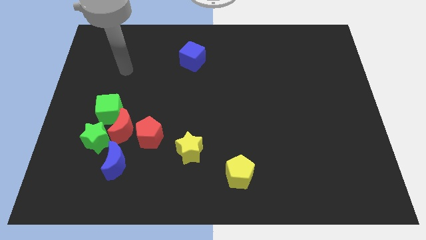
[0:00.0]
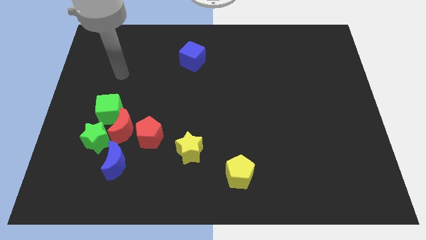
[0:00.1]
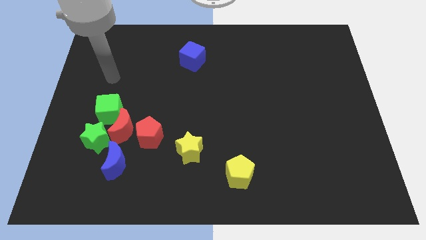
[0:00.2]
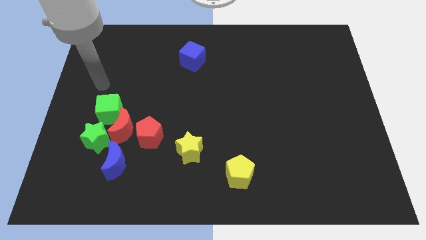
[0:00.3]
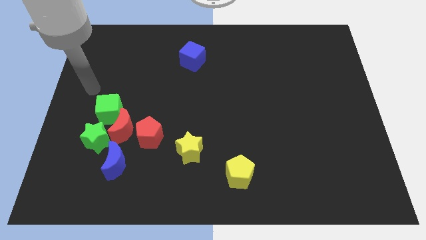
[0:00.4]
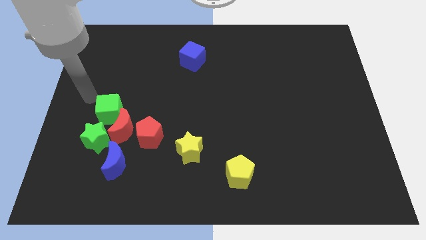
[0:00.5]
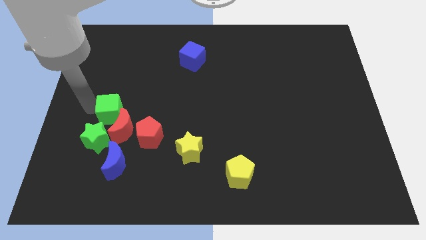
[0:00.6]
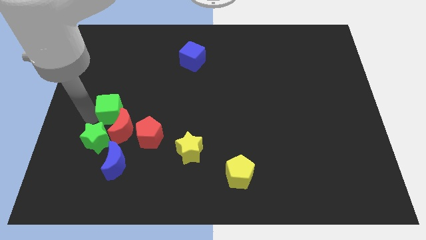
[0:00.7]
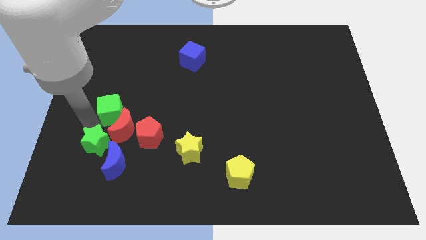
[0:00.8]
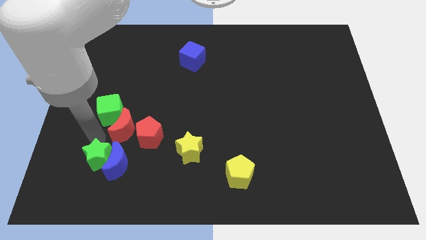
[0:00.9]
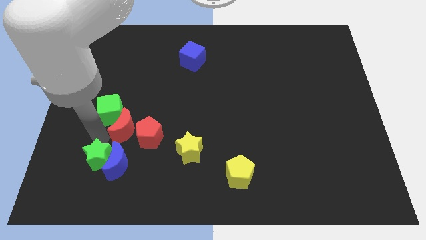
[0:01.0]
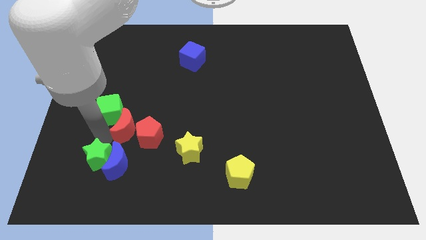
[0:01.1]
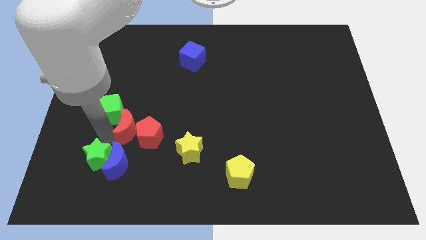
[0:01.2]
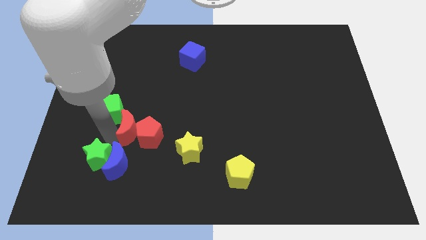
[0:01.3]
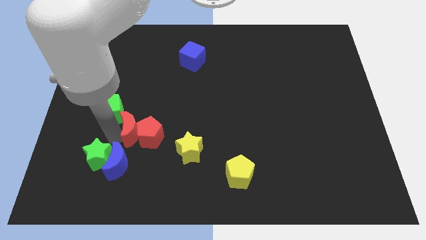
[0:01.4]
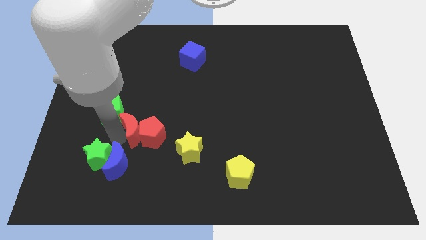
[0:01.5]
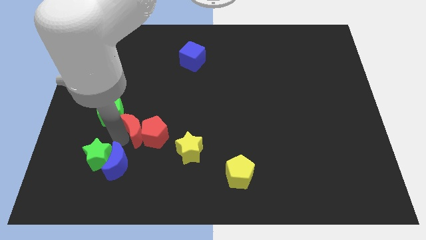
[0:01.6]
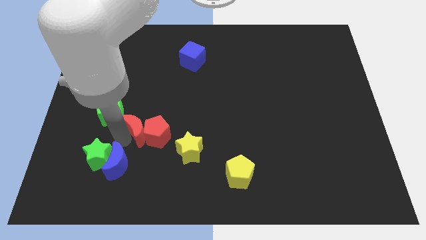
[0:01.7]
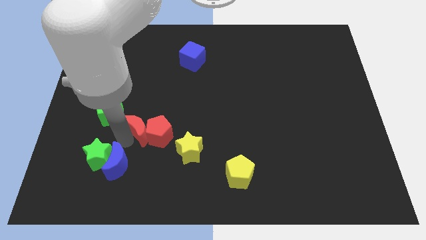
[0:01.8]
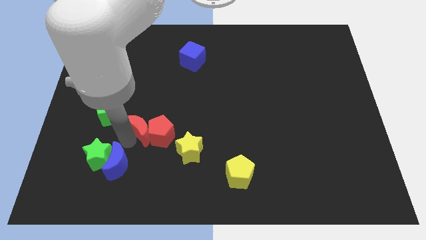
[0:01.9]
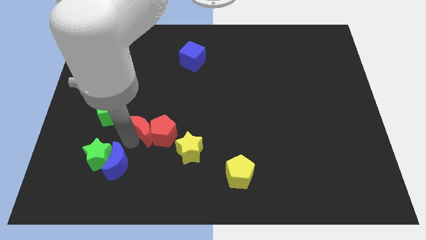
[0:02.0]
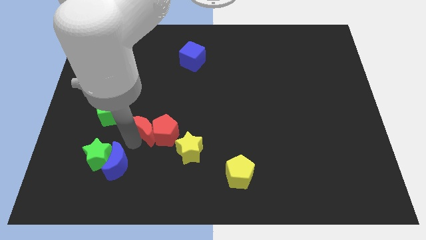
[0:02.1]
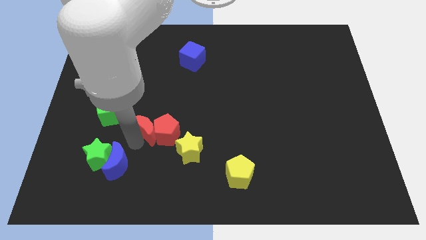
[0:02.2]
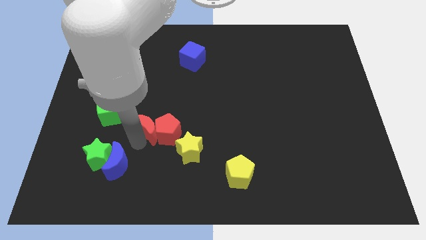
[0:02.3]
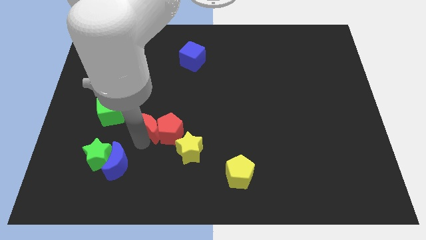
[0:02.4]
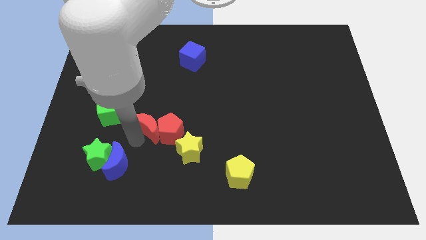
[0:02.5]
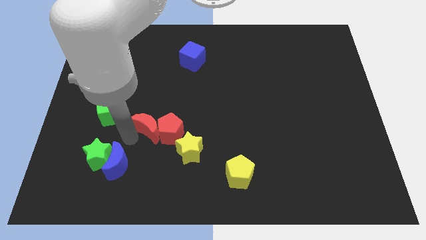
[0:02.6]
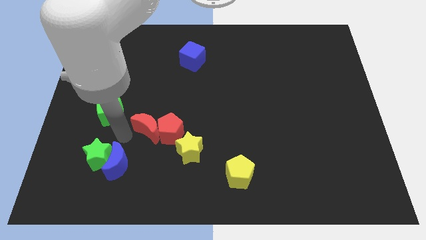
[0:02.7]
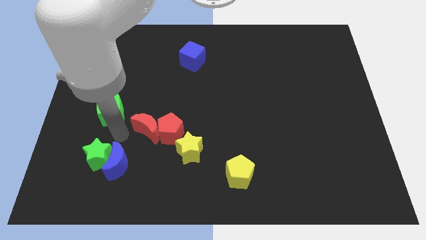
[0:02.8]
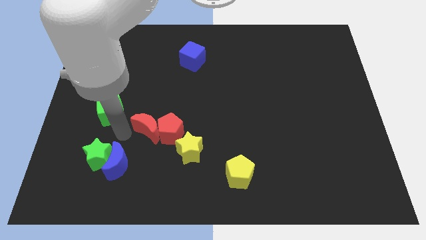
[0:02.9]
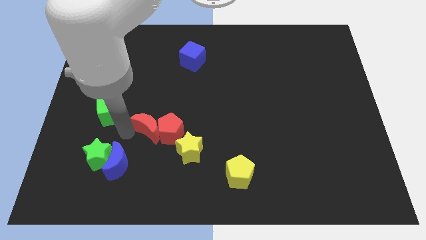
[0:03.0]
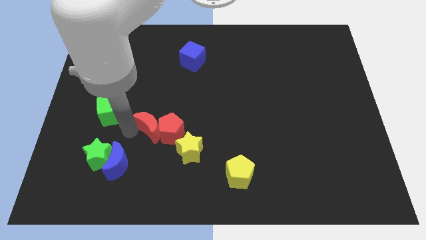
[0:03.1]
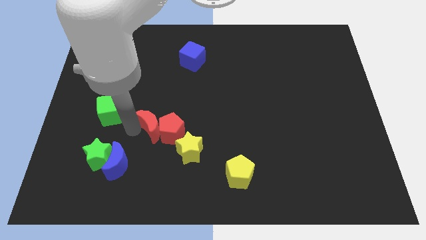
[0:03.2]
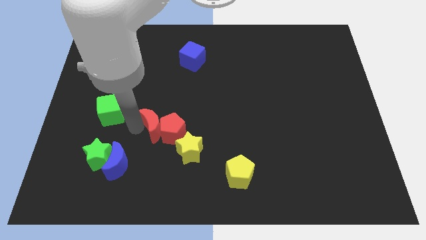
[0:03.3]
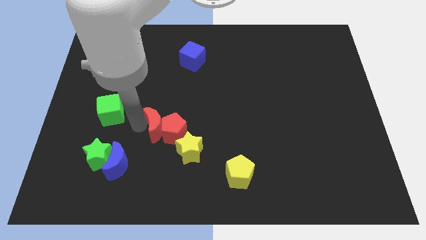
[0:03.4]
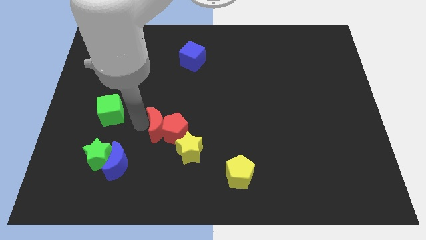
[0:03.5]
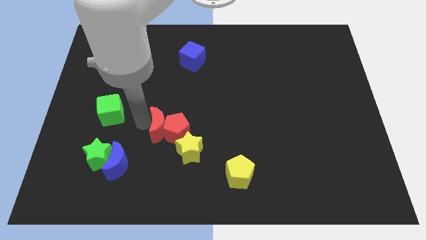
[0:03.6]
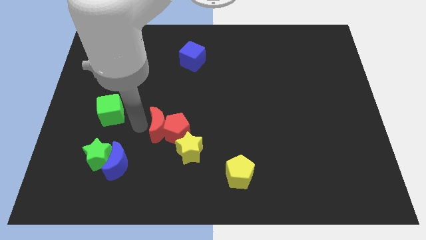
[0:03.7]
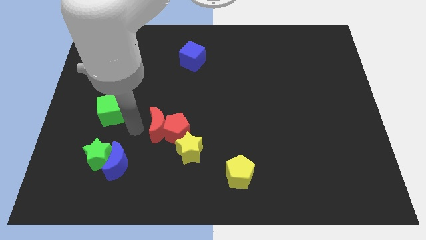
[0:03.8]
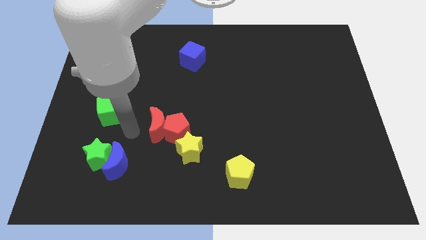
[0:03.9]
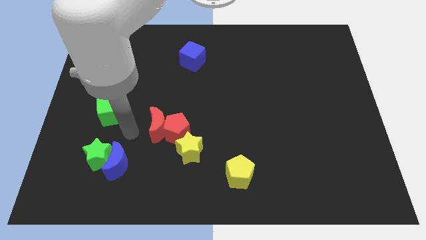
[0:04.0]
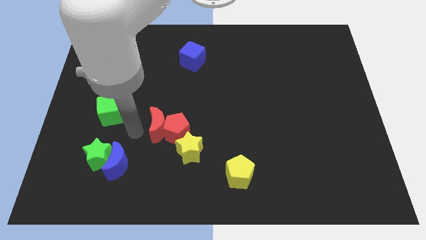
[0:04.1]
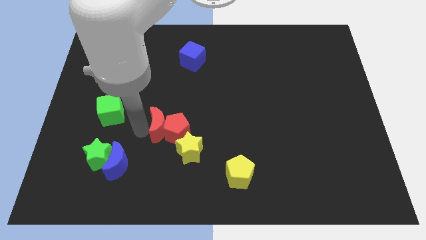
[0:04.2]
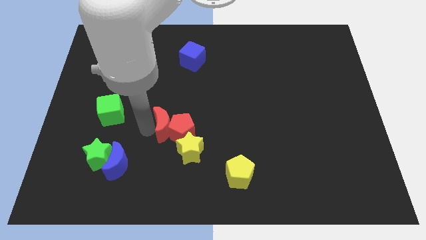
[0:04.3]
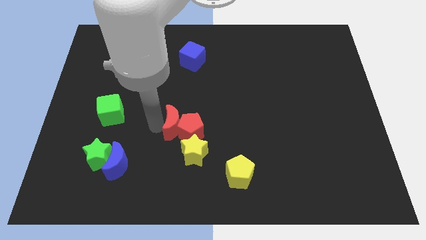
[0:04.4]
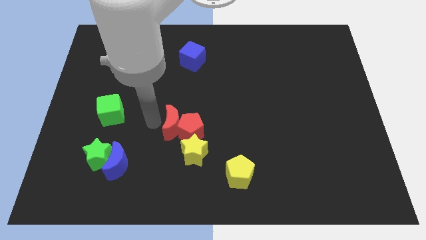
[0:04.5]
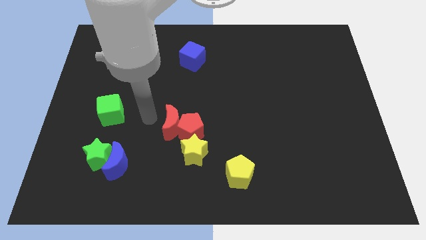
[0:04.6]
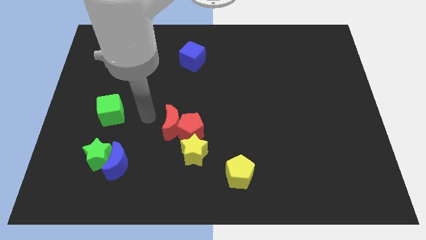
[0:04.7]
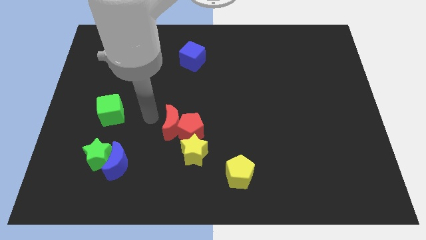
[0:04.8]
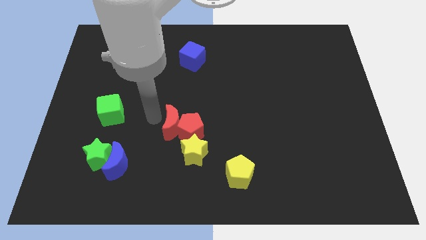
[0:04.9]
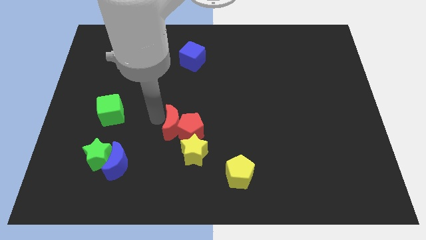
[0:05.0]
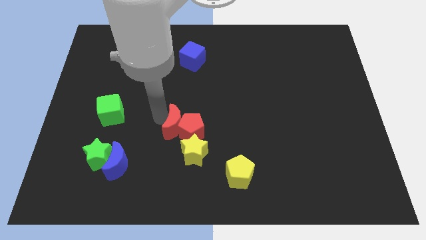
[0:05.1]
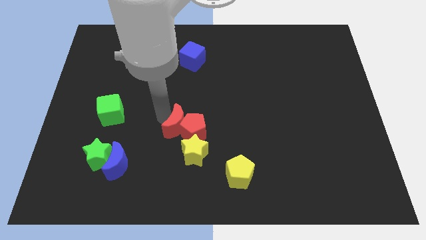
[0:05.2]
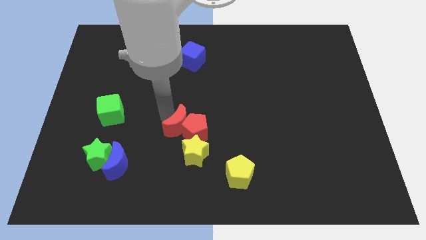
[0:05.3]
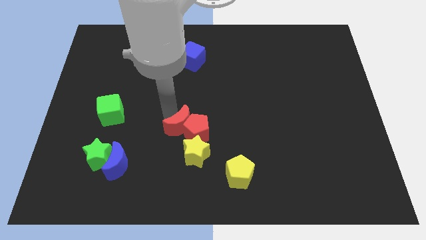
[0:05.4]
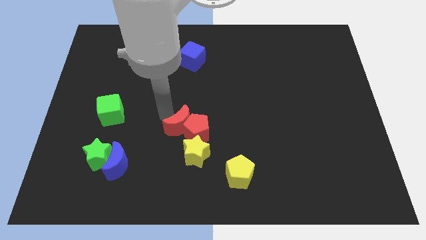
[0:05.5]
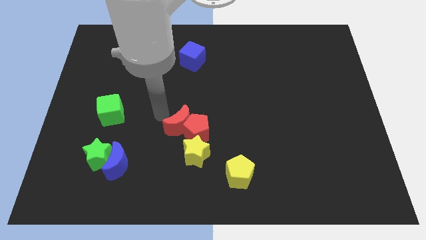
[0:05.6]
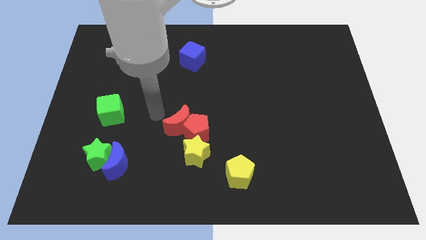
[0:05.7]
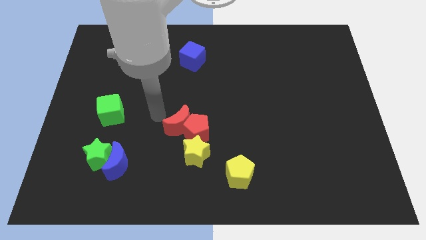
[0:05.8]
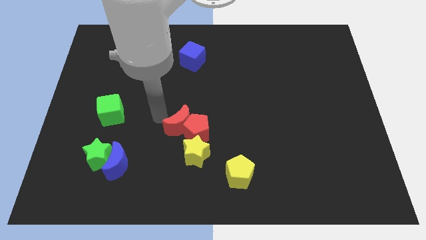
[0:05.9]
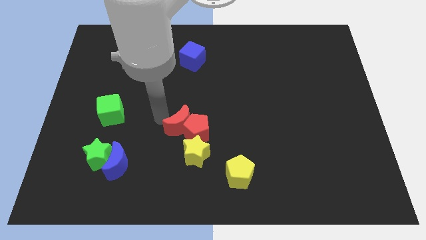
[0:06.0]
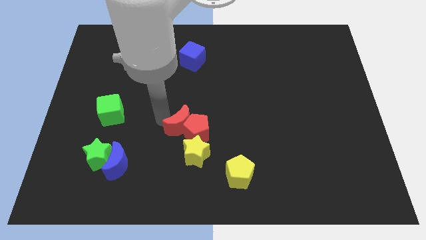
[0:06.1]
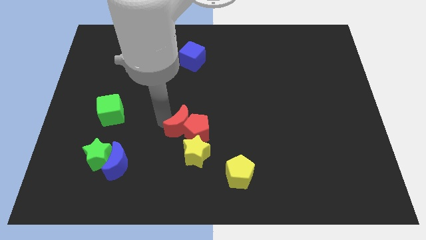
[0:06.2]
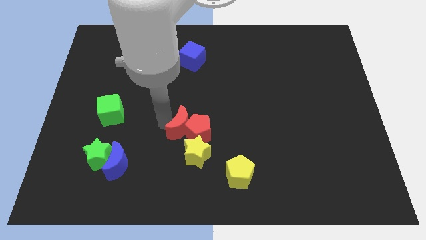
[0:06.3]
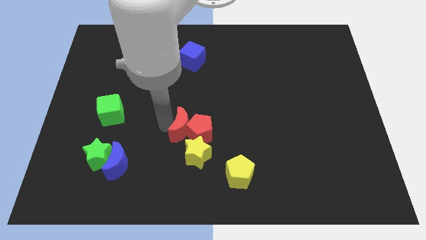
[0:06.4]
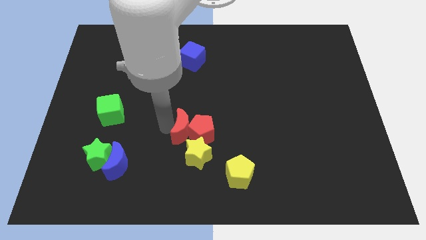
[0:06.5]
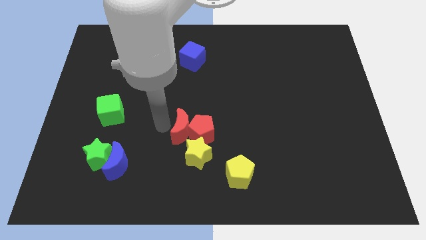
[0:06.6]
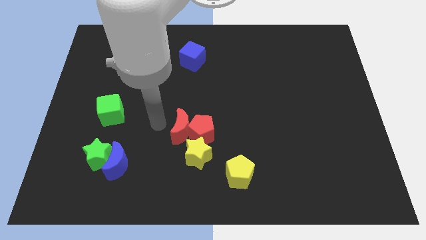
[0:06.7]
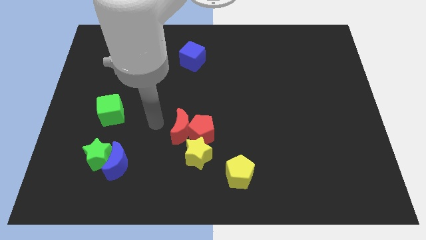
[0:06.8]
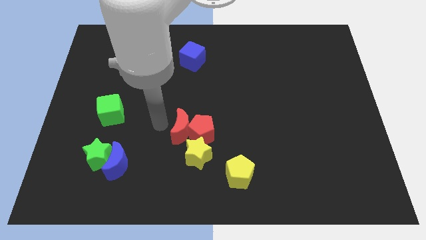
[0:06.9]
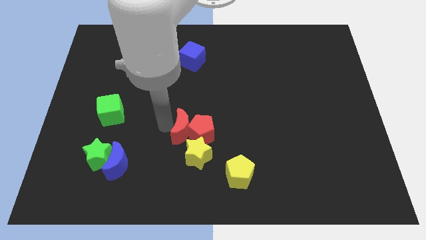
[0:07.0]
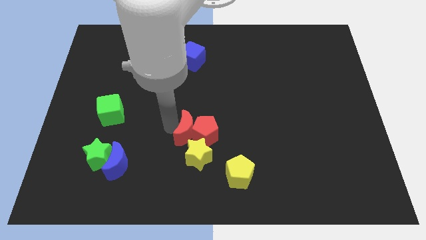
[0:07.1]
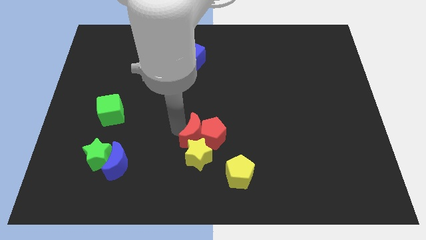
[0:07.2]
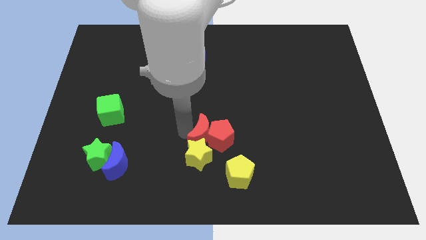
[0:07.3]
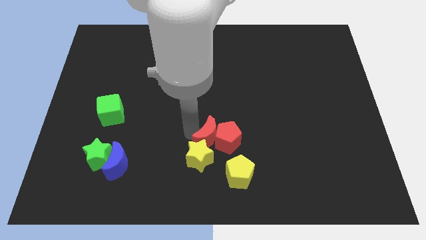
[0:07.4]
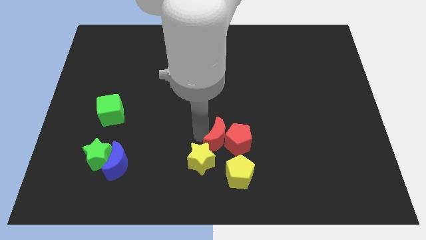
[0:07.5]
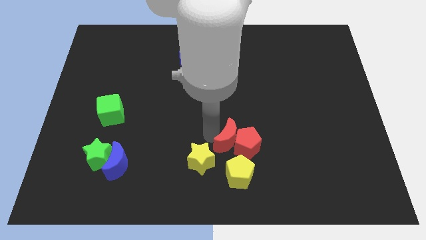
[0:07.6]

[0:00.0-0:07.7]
slide the red moon right of the yellow star
